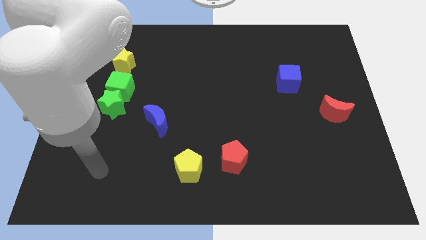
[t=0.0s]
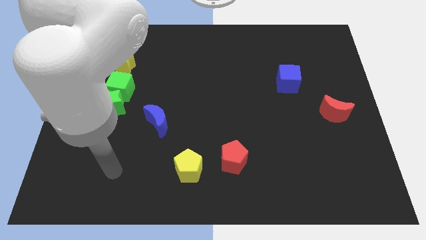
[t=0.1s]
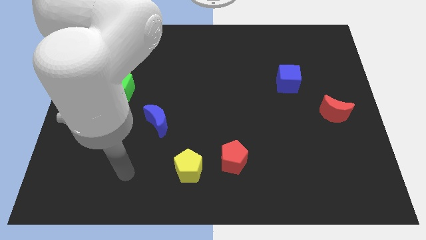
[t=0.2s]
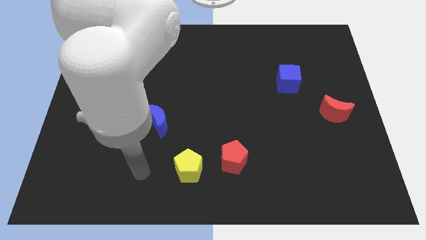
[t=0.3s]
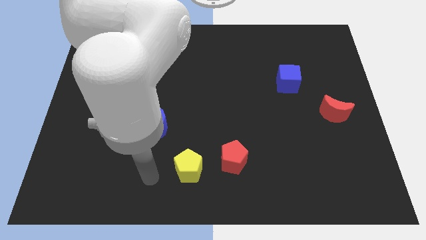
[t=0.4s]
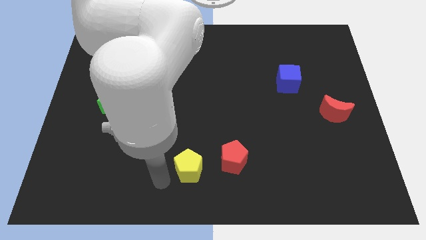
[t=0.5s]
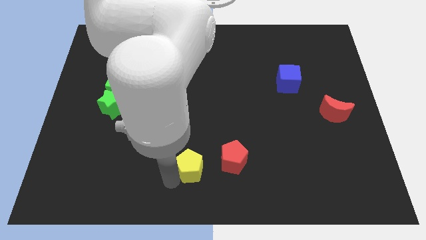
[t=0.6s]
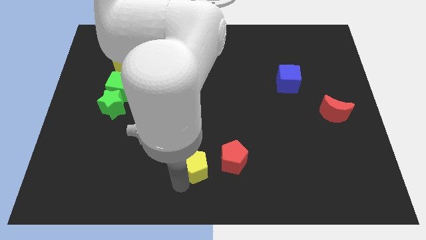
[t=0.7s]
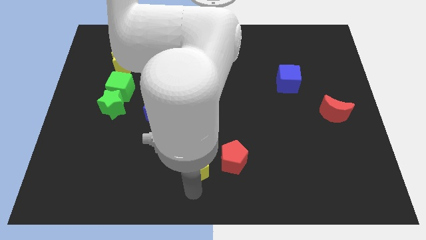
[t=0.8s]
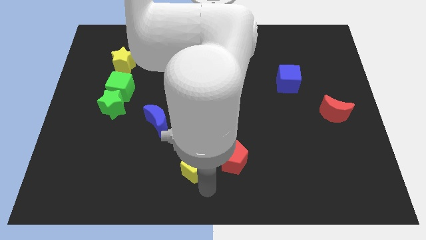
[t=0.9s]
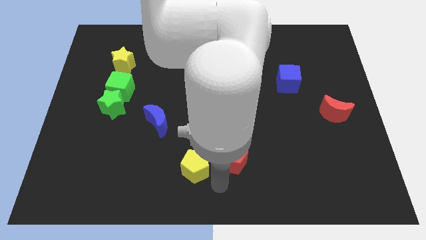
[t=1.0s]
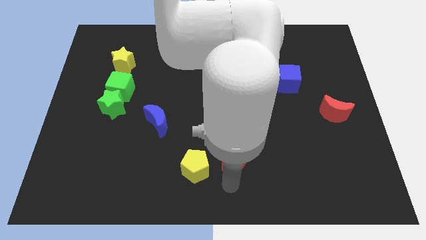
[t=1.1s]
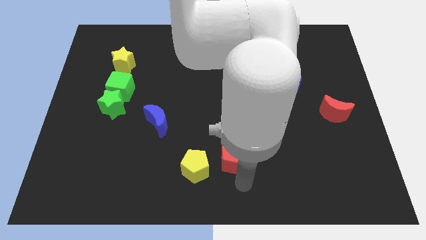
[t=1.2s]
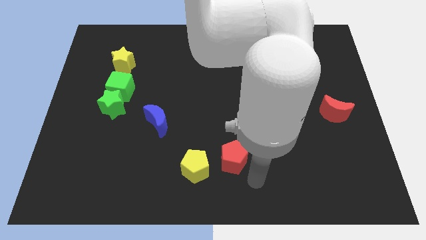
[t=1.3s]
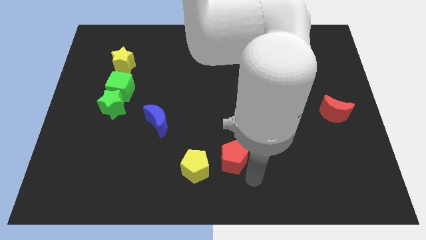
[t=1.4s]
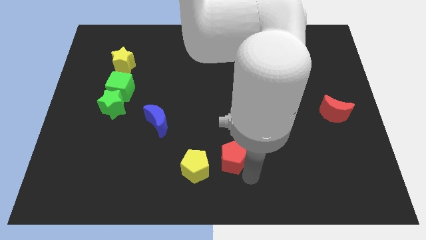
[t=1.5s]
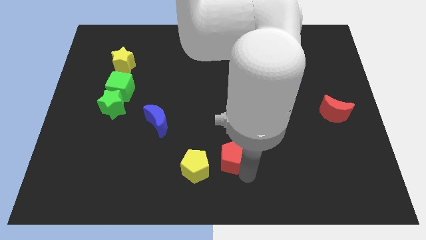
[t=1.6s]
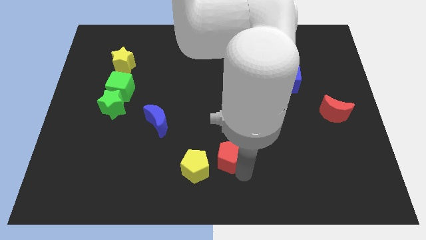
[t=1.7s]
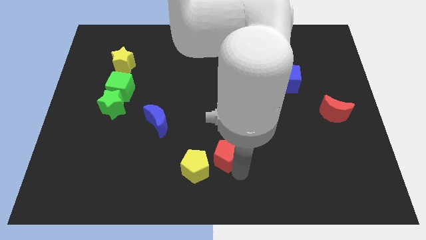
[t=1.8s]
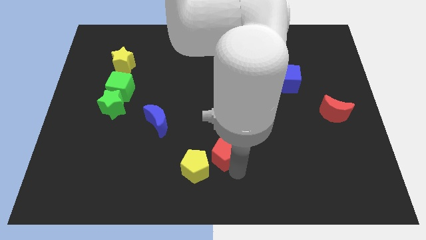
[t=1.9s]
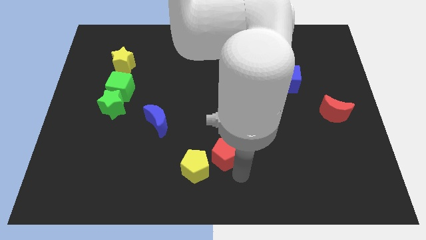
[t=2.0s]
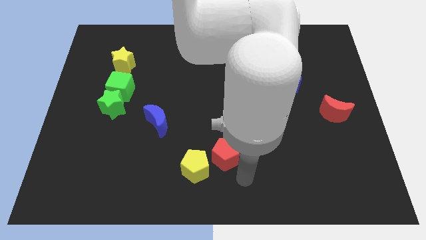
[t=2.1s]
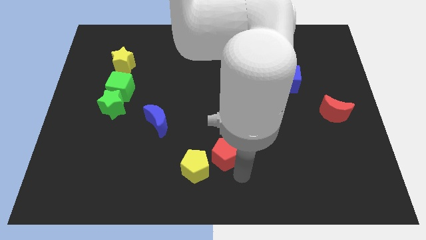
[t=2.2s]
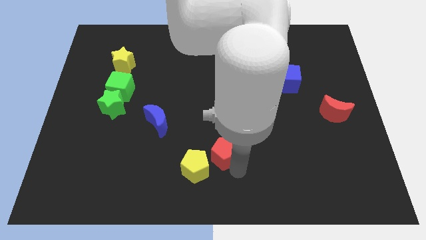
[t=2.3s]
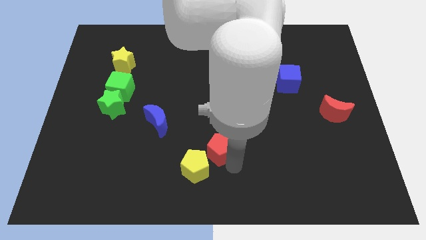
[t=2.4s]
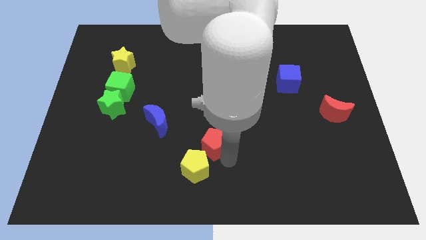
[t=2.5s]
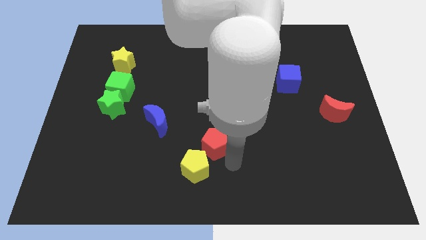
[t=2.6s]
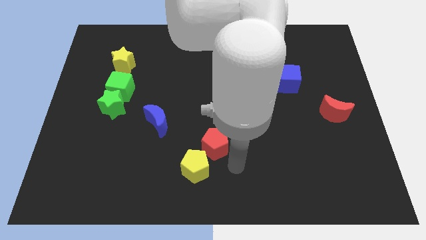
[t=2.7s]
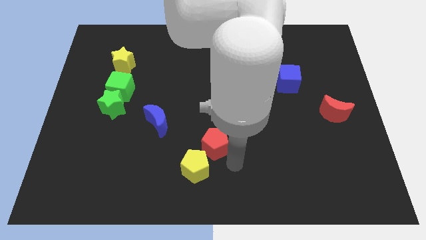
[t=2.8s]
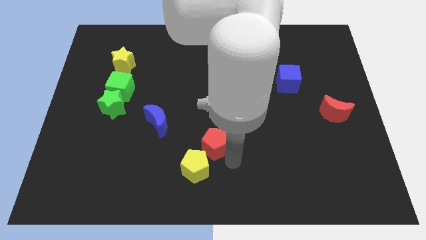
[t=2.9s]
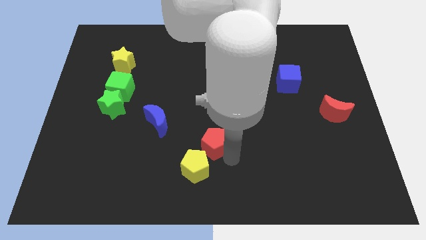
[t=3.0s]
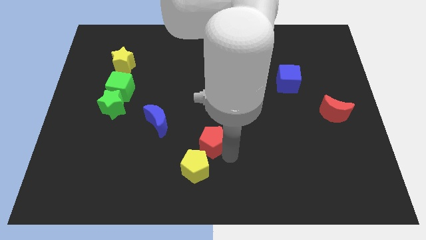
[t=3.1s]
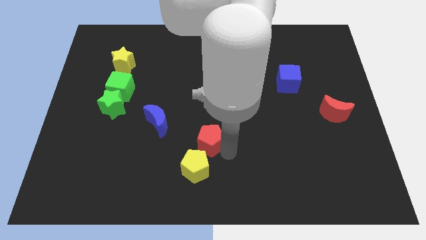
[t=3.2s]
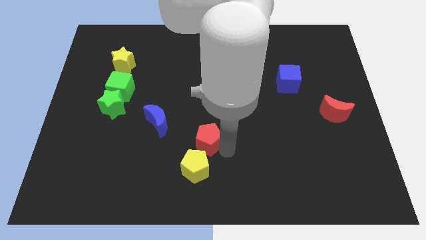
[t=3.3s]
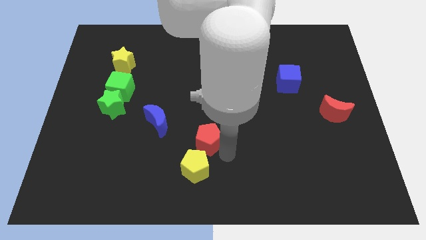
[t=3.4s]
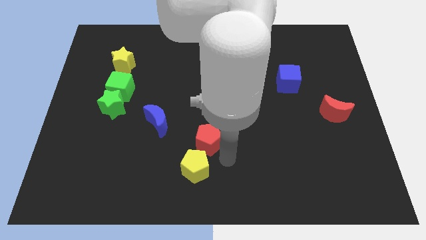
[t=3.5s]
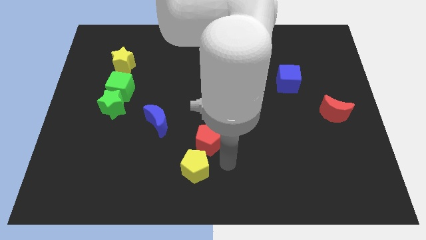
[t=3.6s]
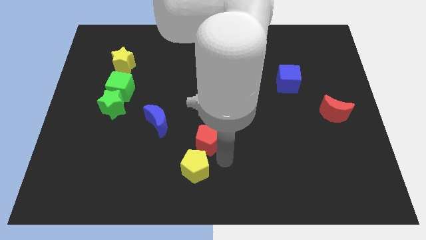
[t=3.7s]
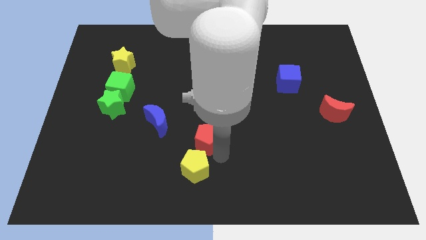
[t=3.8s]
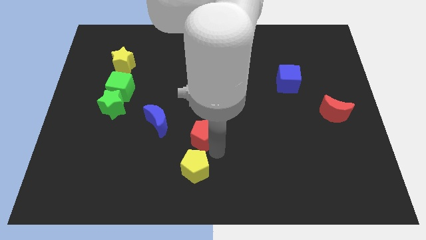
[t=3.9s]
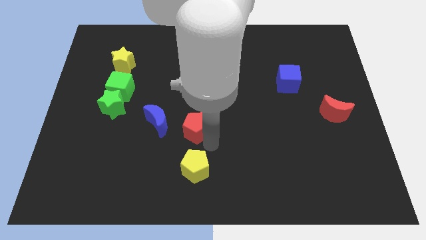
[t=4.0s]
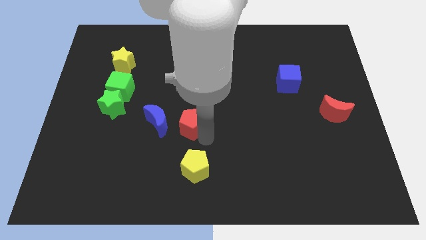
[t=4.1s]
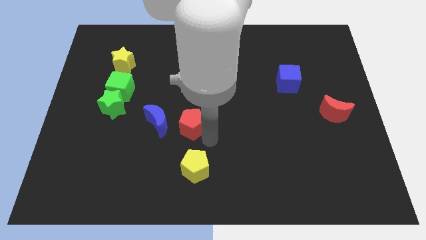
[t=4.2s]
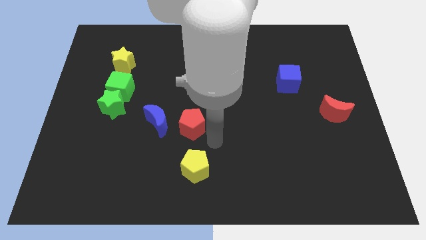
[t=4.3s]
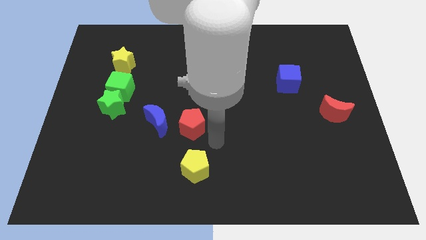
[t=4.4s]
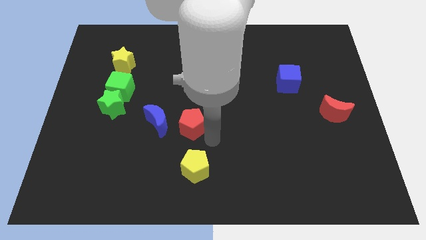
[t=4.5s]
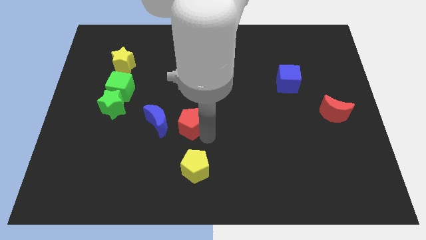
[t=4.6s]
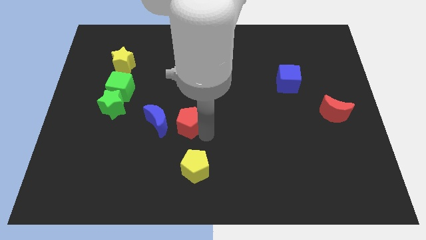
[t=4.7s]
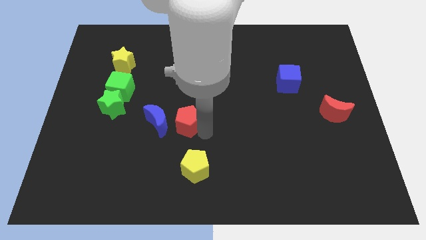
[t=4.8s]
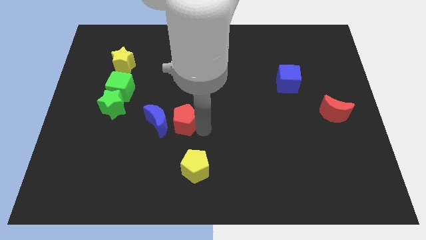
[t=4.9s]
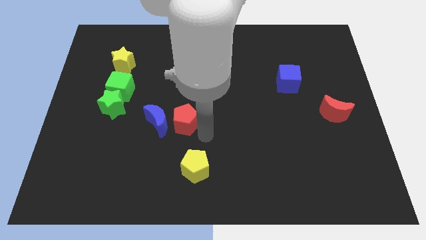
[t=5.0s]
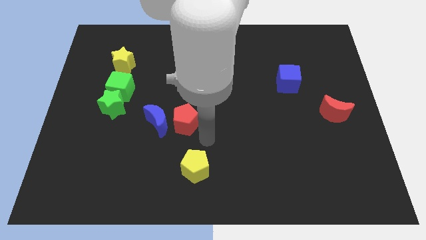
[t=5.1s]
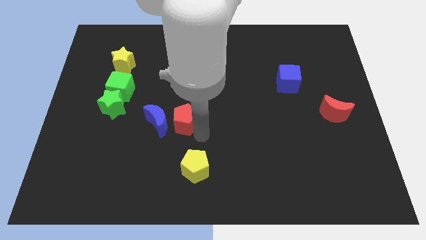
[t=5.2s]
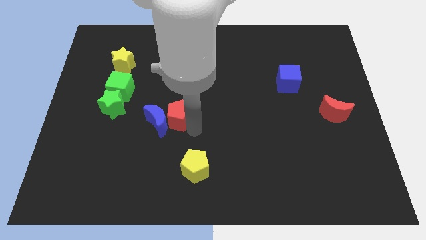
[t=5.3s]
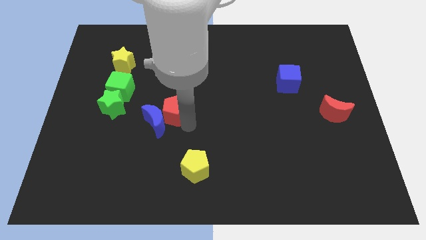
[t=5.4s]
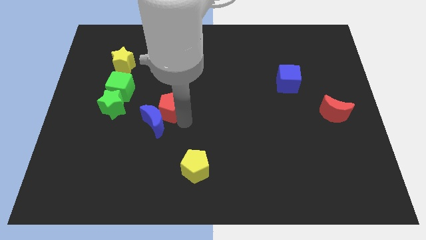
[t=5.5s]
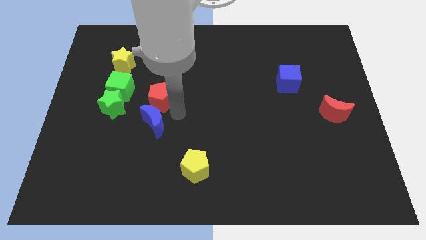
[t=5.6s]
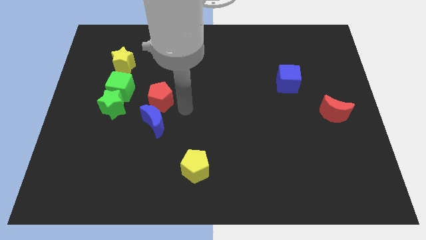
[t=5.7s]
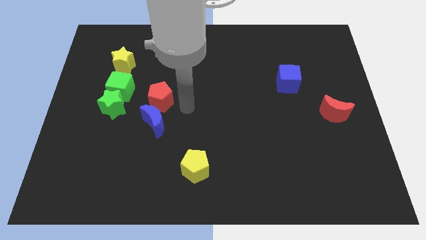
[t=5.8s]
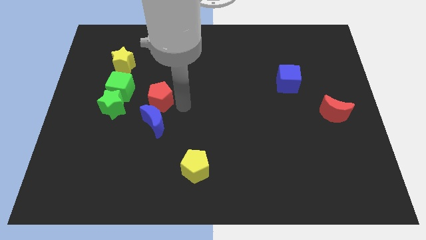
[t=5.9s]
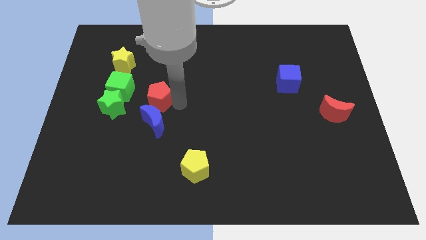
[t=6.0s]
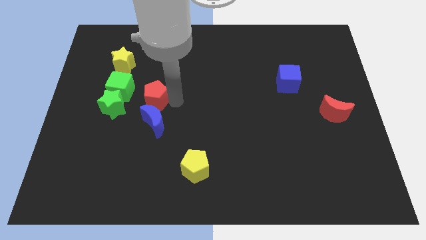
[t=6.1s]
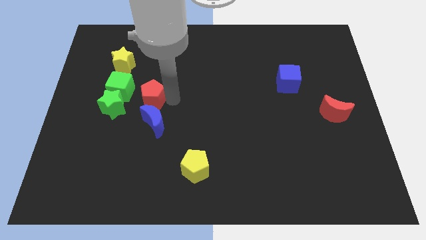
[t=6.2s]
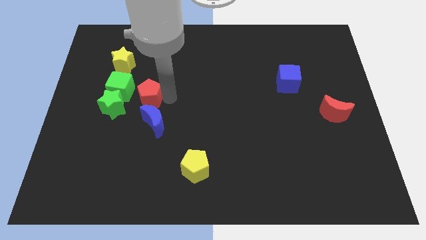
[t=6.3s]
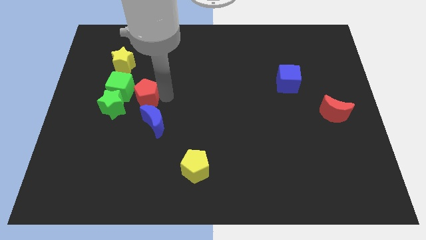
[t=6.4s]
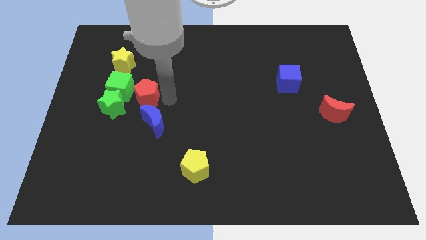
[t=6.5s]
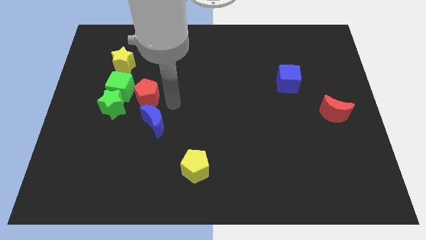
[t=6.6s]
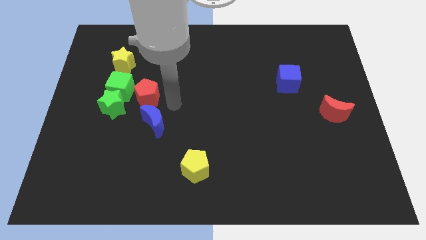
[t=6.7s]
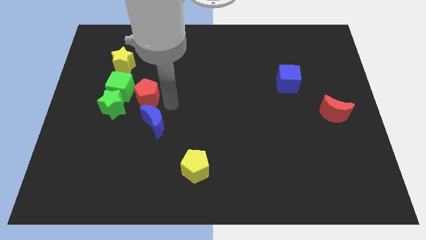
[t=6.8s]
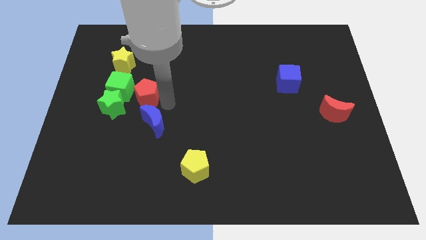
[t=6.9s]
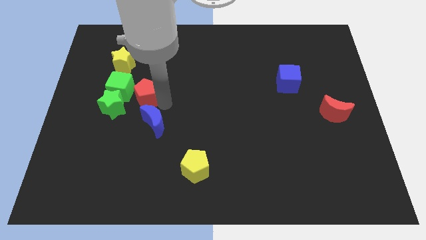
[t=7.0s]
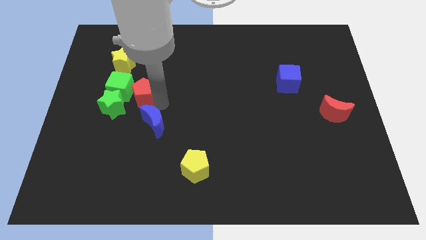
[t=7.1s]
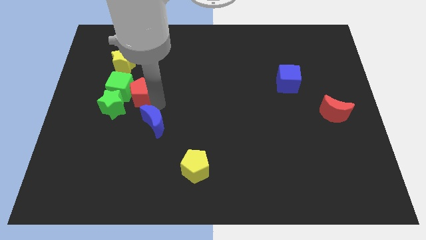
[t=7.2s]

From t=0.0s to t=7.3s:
push the red pentagon towards the green cube

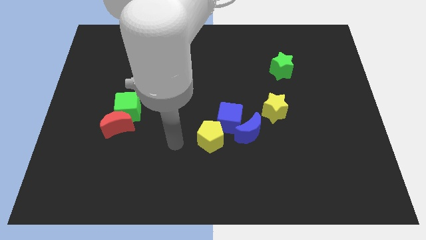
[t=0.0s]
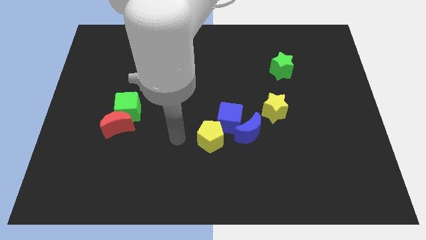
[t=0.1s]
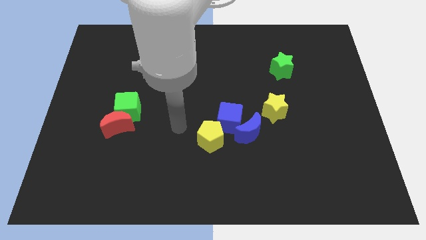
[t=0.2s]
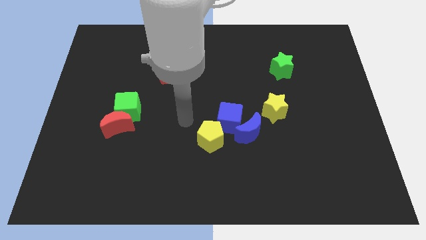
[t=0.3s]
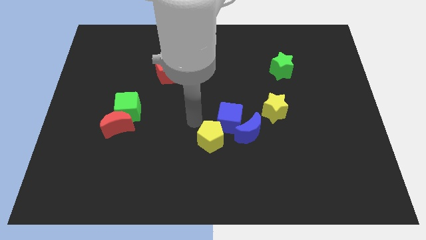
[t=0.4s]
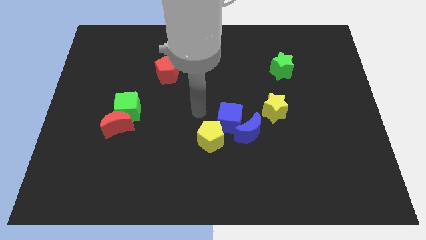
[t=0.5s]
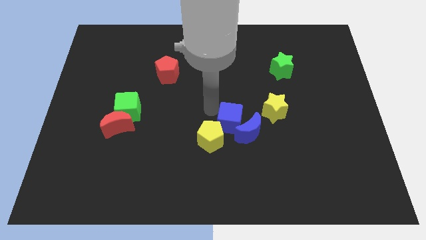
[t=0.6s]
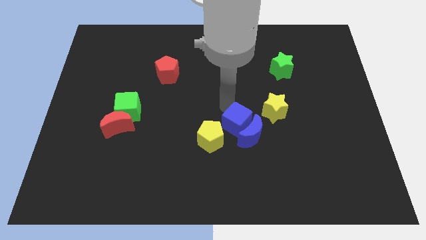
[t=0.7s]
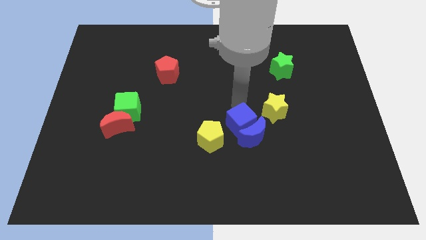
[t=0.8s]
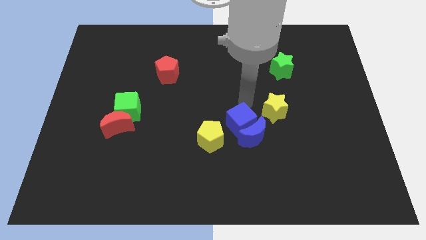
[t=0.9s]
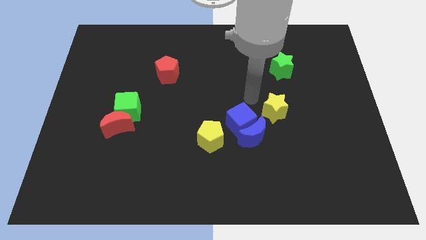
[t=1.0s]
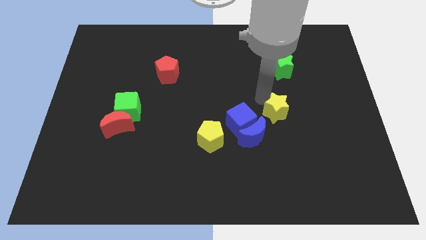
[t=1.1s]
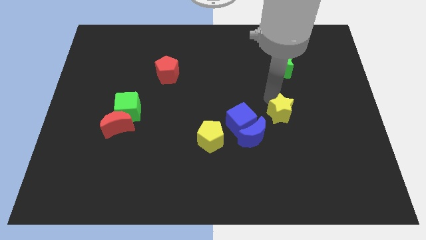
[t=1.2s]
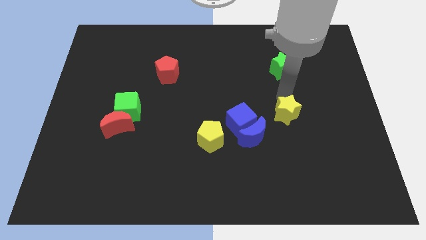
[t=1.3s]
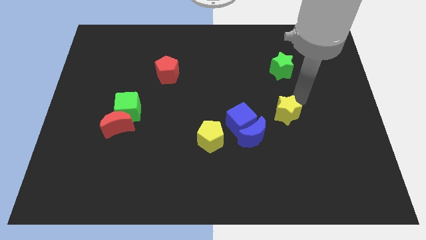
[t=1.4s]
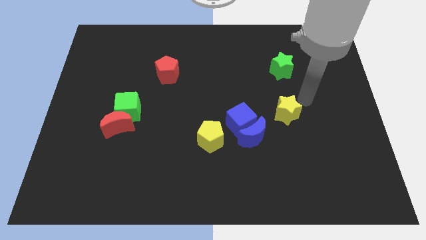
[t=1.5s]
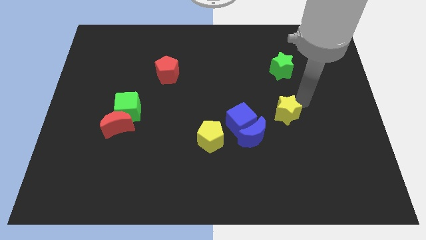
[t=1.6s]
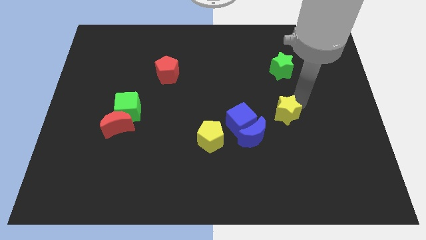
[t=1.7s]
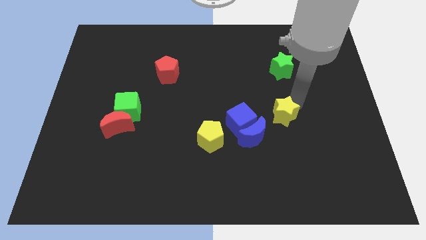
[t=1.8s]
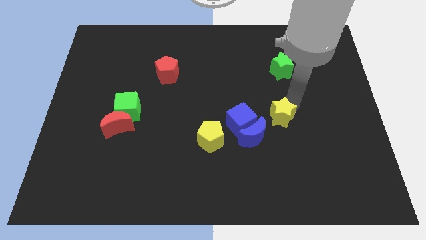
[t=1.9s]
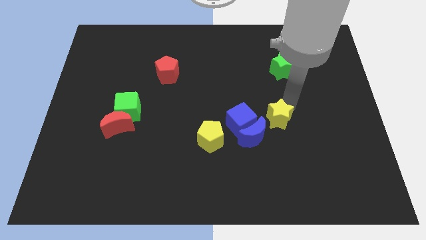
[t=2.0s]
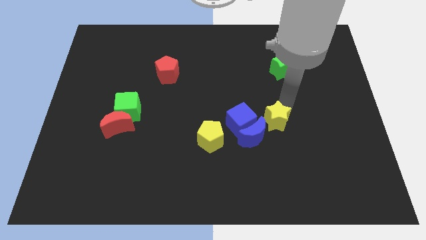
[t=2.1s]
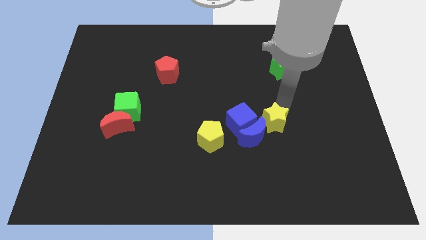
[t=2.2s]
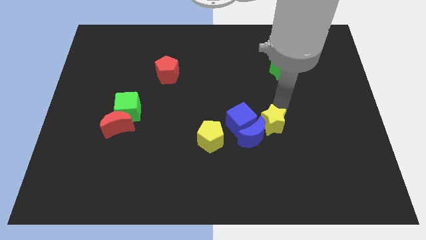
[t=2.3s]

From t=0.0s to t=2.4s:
put the yellow star to the blue moon
